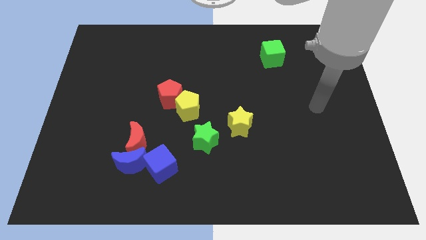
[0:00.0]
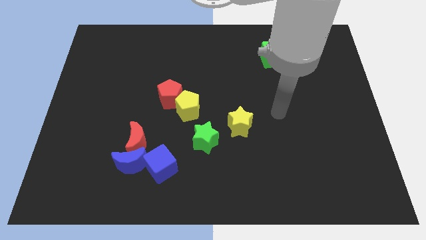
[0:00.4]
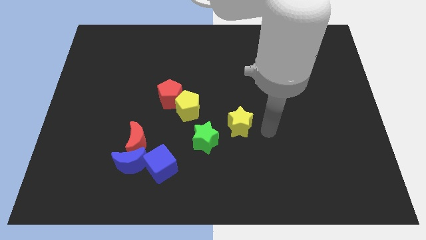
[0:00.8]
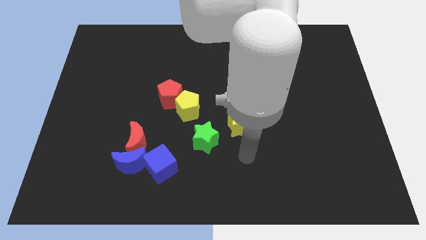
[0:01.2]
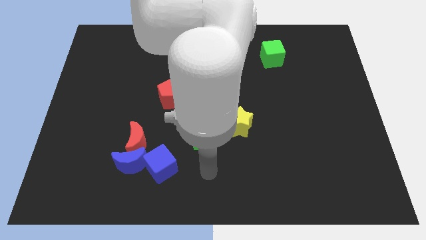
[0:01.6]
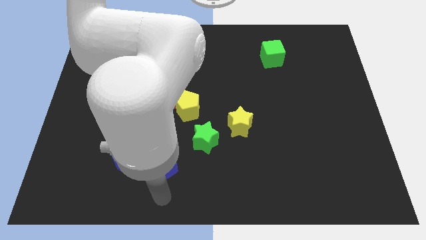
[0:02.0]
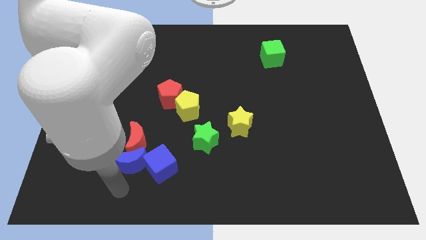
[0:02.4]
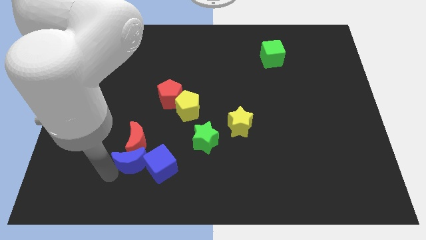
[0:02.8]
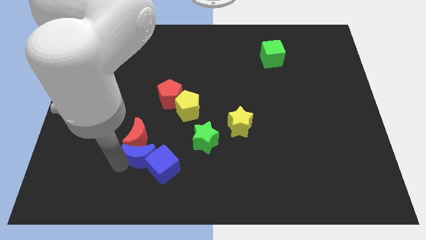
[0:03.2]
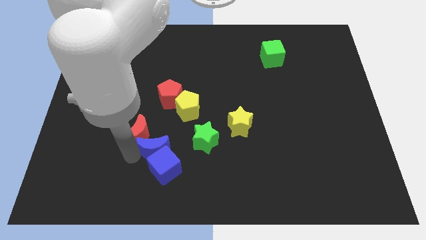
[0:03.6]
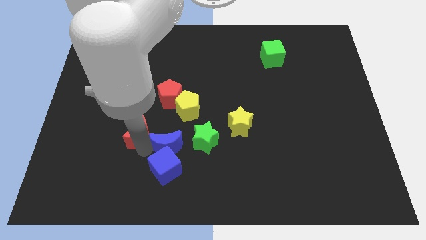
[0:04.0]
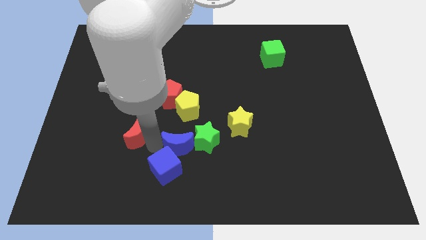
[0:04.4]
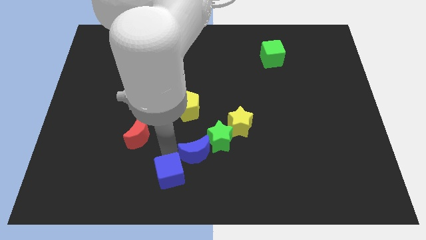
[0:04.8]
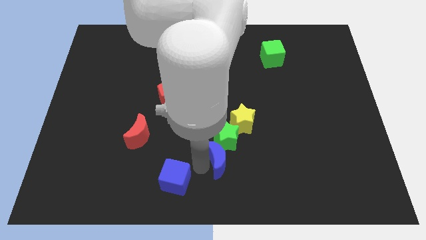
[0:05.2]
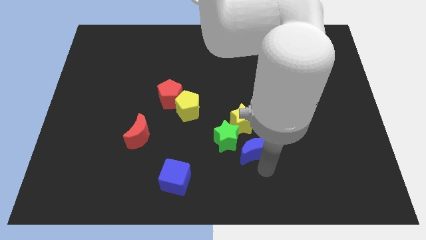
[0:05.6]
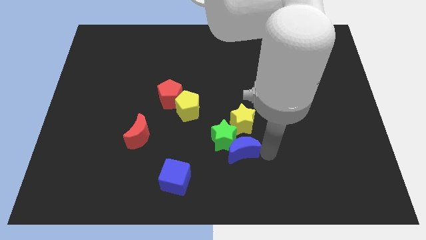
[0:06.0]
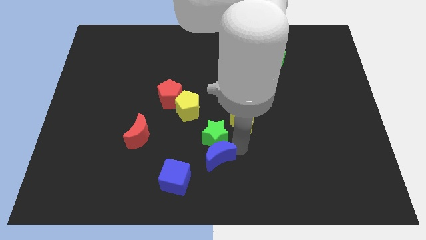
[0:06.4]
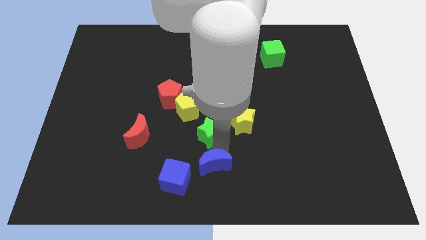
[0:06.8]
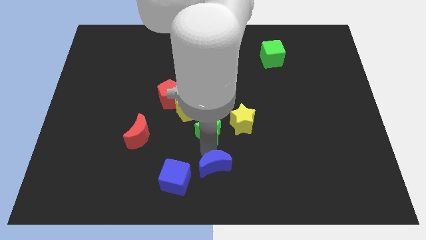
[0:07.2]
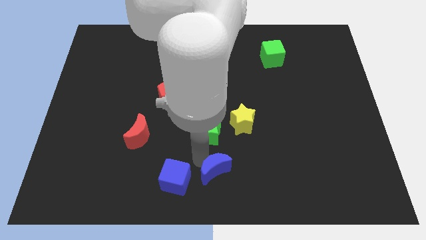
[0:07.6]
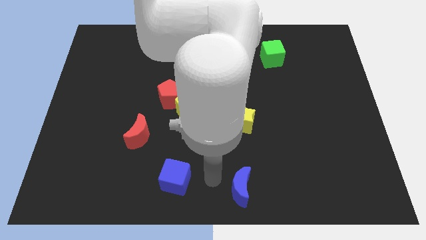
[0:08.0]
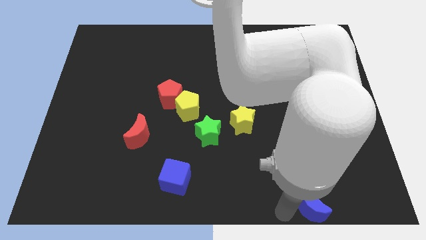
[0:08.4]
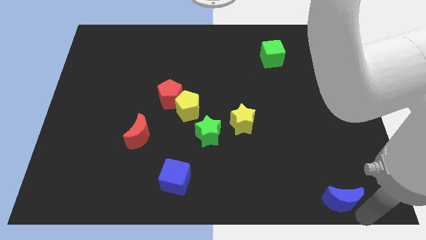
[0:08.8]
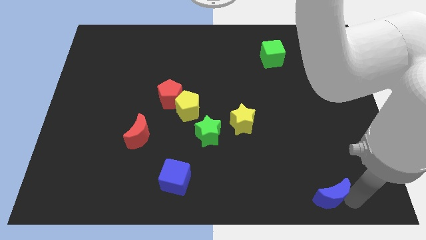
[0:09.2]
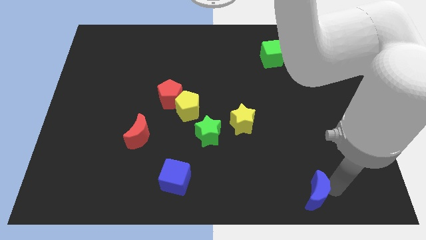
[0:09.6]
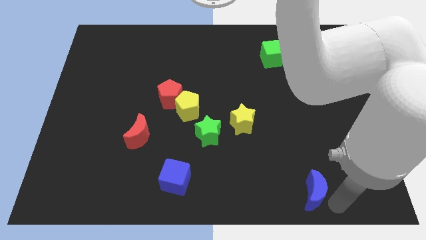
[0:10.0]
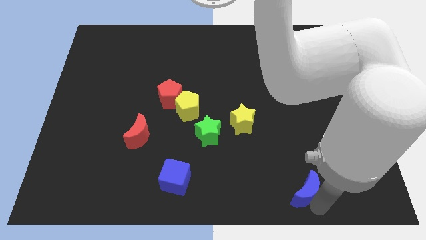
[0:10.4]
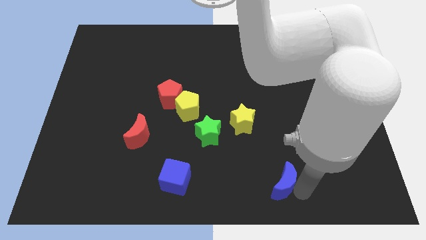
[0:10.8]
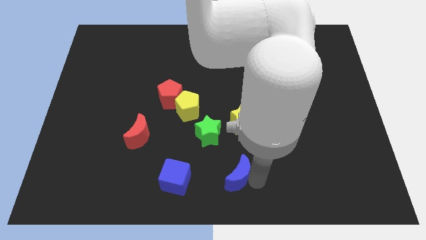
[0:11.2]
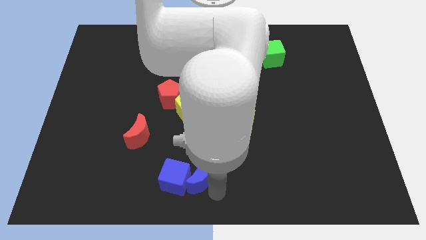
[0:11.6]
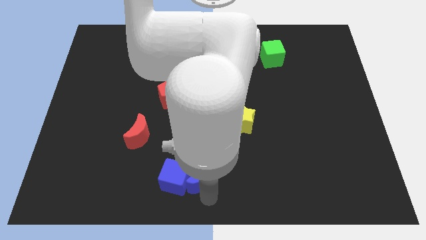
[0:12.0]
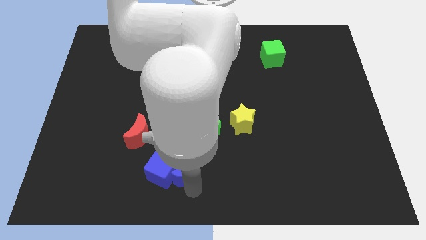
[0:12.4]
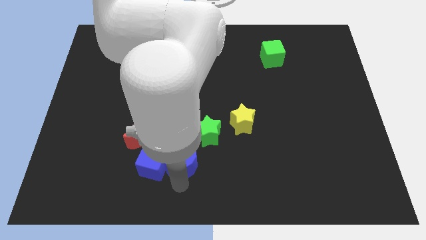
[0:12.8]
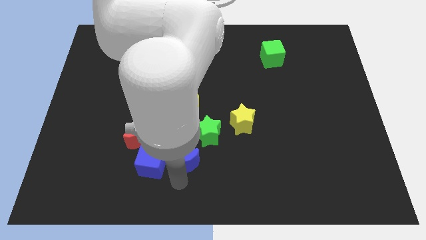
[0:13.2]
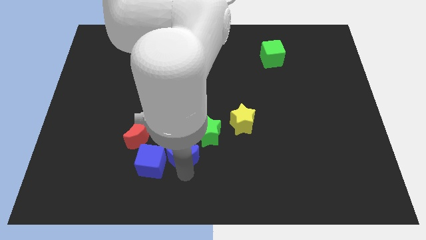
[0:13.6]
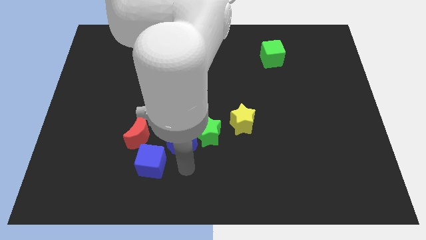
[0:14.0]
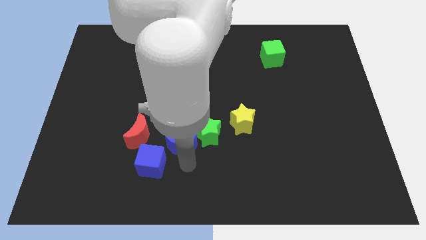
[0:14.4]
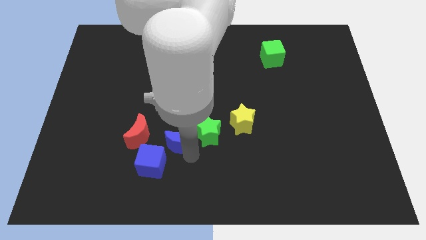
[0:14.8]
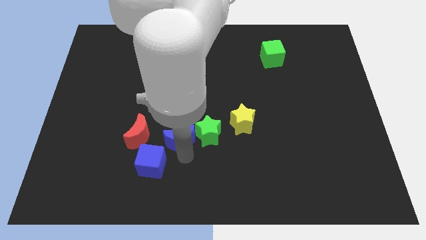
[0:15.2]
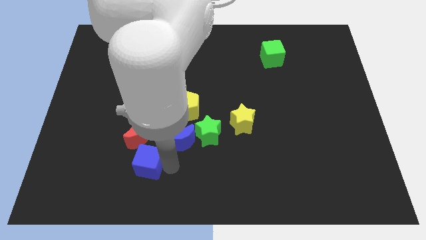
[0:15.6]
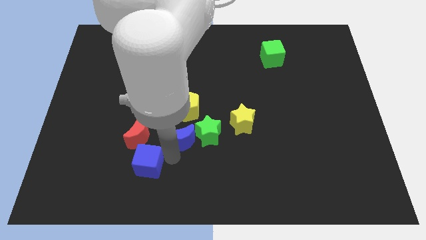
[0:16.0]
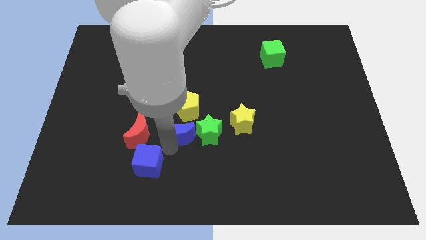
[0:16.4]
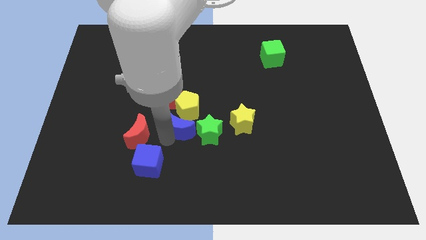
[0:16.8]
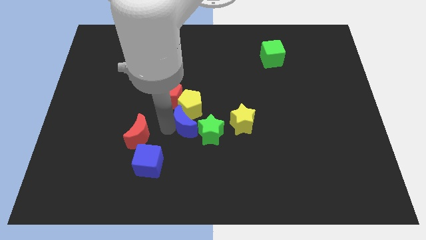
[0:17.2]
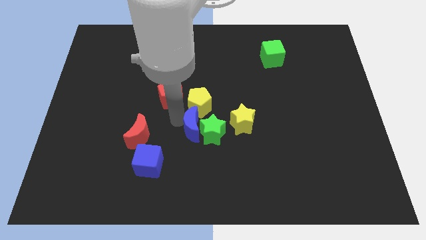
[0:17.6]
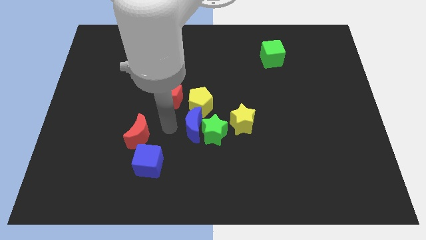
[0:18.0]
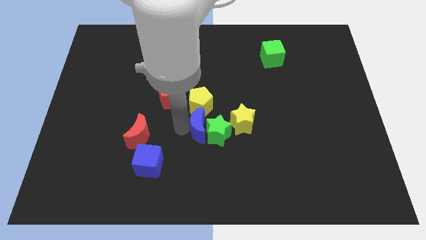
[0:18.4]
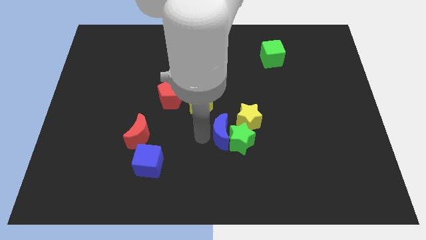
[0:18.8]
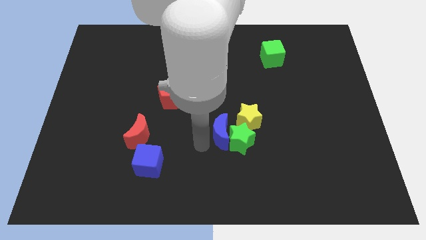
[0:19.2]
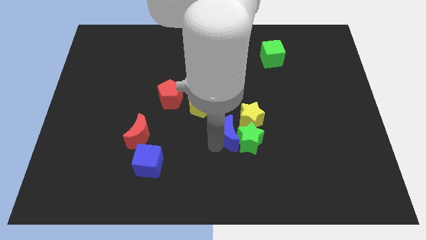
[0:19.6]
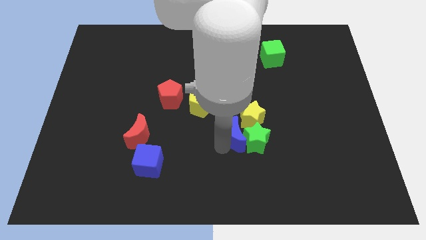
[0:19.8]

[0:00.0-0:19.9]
slide the blue moon next to the yellow star

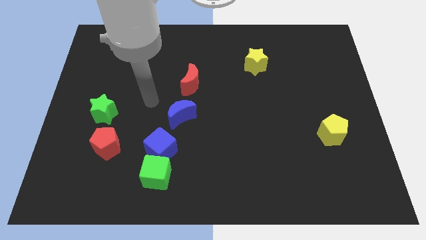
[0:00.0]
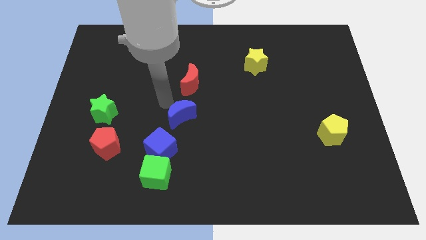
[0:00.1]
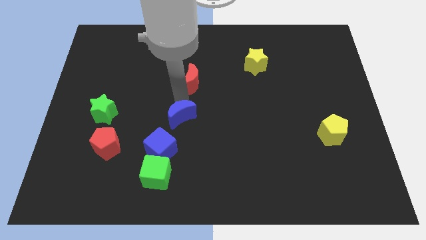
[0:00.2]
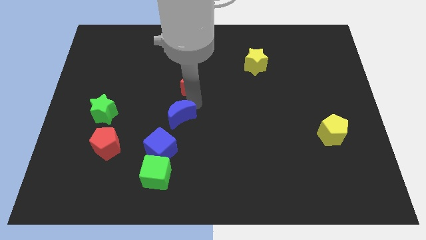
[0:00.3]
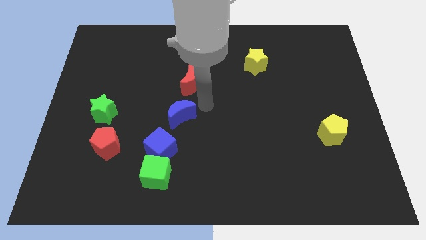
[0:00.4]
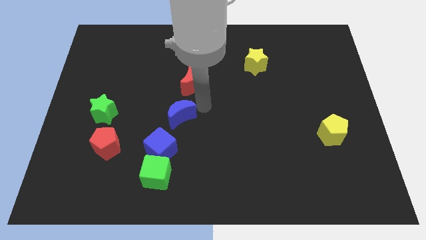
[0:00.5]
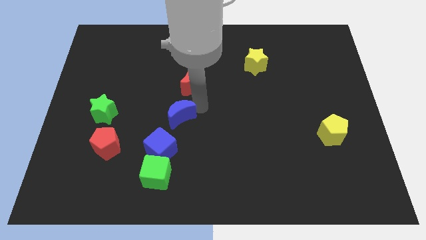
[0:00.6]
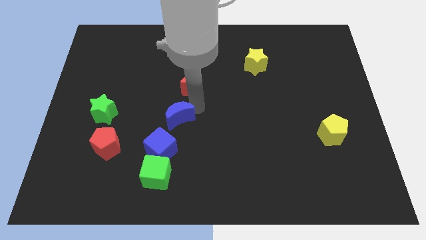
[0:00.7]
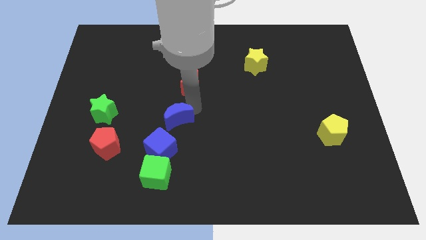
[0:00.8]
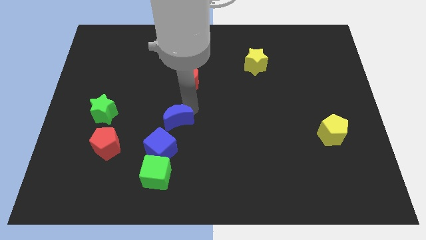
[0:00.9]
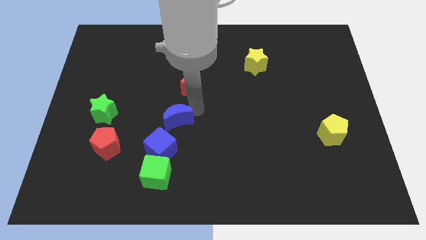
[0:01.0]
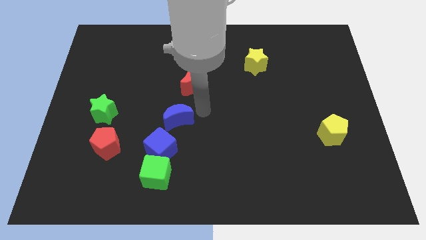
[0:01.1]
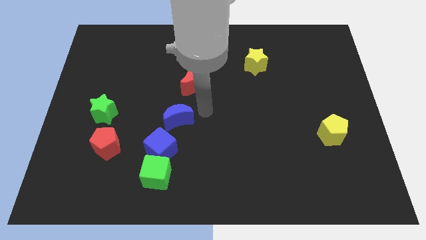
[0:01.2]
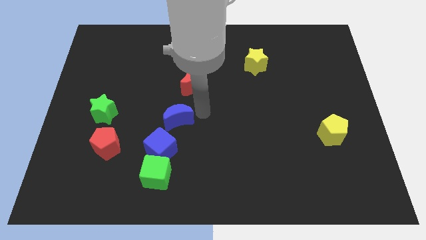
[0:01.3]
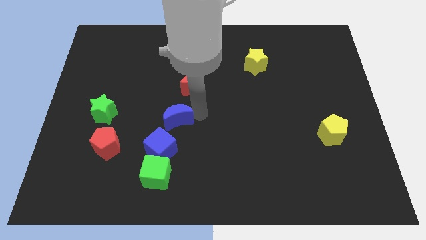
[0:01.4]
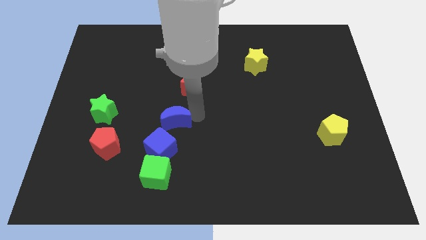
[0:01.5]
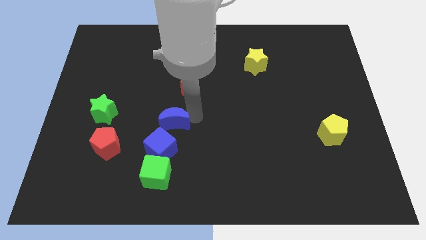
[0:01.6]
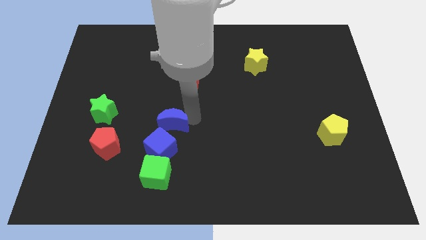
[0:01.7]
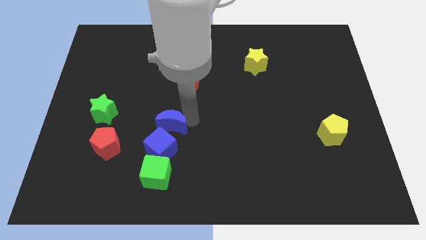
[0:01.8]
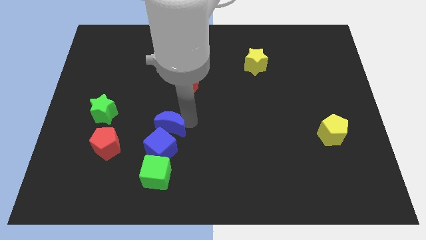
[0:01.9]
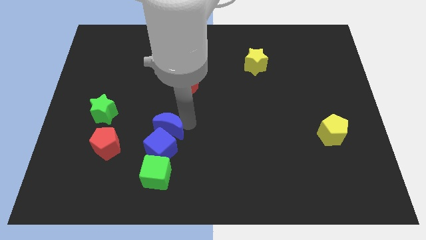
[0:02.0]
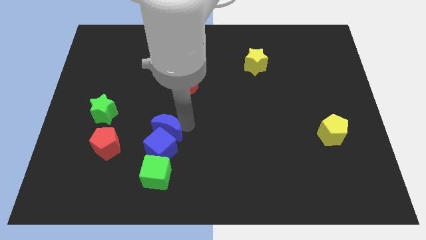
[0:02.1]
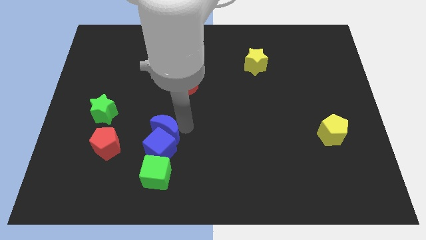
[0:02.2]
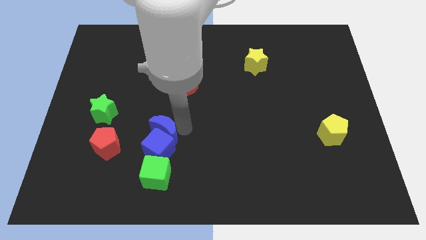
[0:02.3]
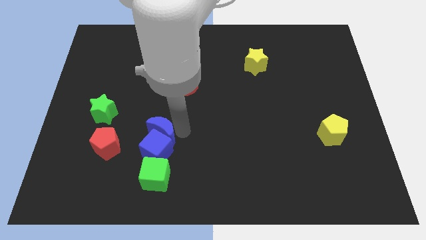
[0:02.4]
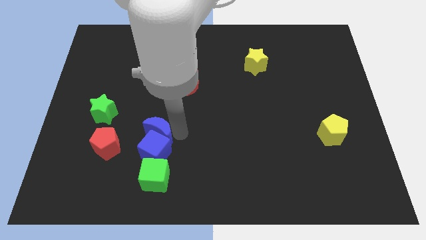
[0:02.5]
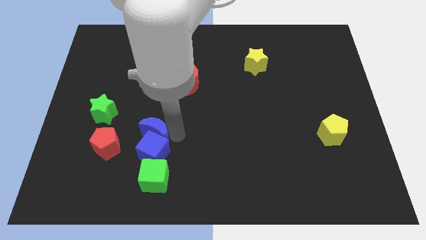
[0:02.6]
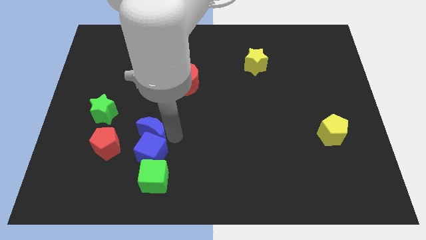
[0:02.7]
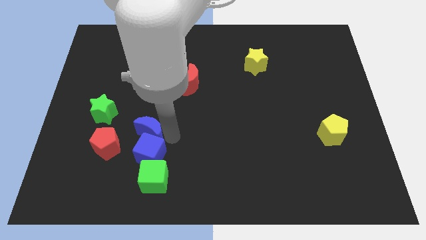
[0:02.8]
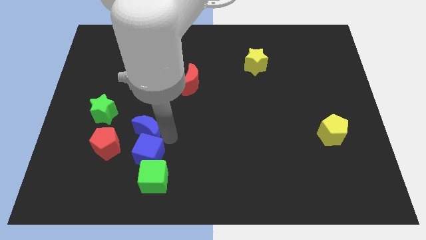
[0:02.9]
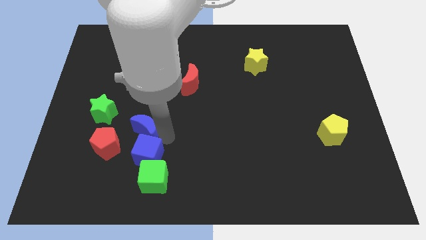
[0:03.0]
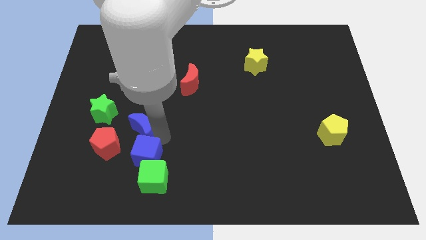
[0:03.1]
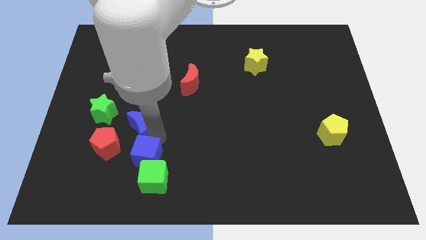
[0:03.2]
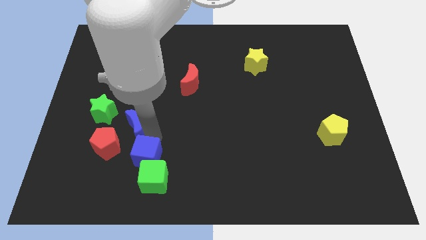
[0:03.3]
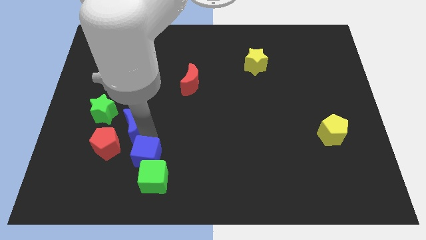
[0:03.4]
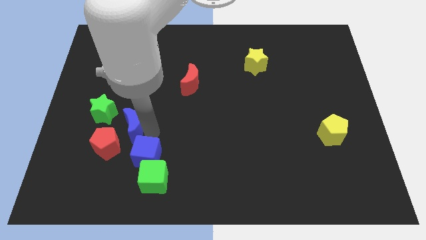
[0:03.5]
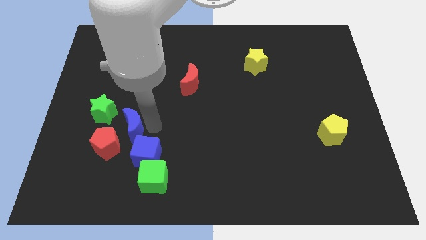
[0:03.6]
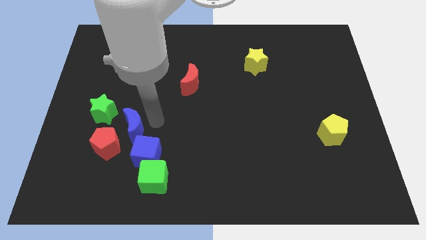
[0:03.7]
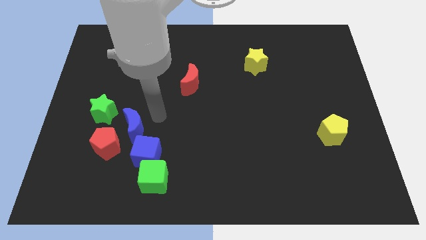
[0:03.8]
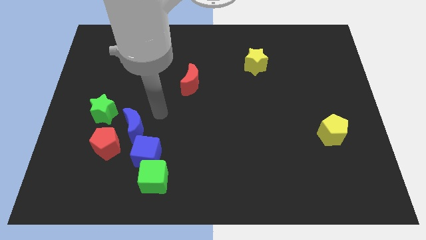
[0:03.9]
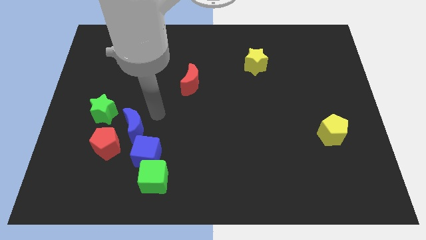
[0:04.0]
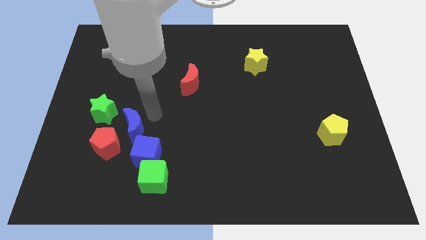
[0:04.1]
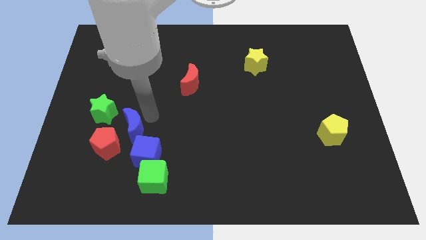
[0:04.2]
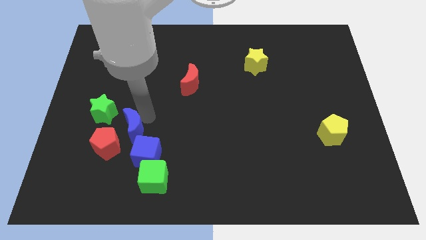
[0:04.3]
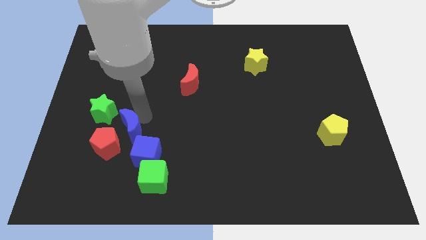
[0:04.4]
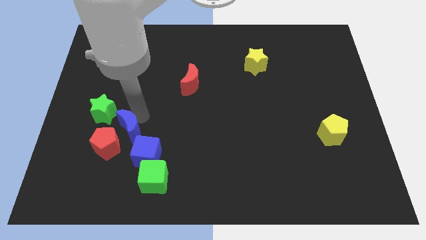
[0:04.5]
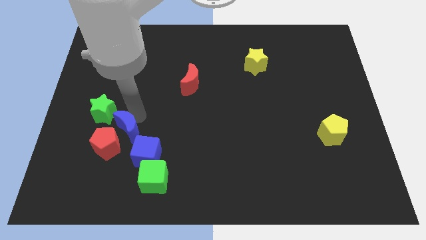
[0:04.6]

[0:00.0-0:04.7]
move the blue moon next to the red pentagon
